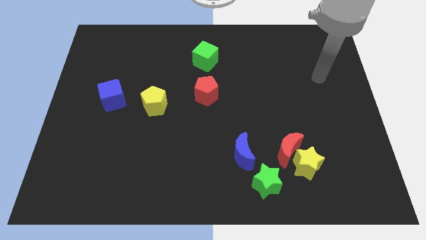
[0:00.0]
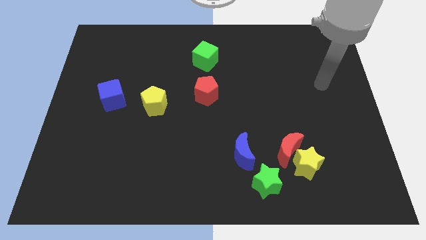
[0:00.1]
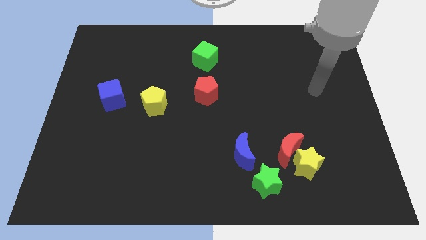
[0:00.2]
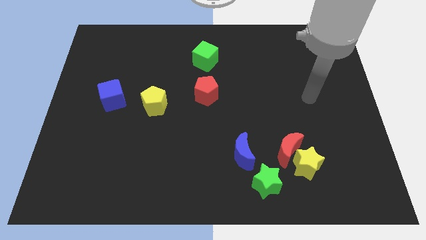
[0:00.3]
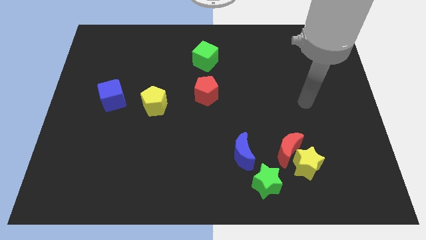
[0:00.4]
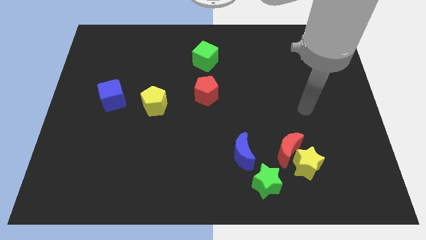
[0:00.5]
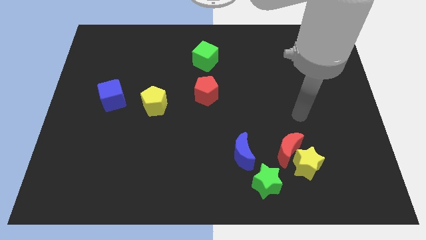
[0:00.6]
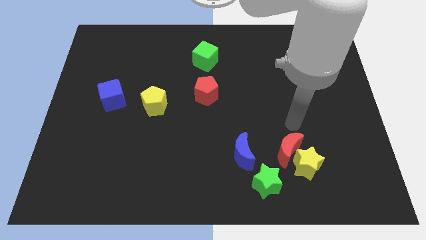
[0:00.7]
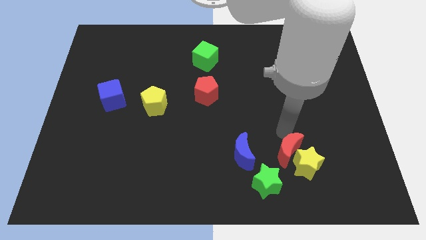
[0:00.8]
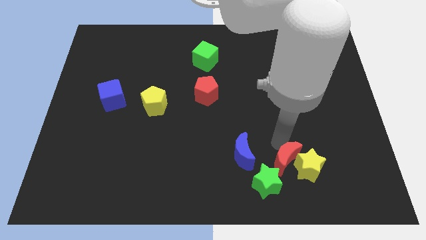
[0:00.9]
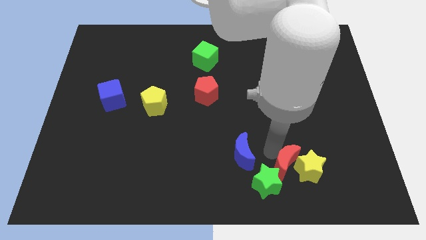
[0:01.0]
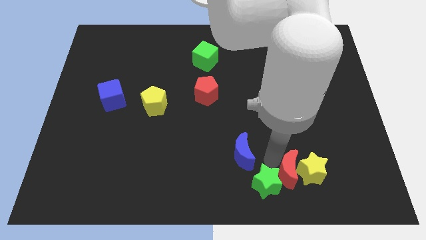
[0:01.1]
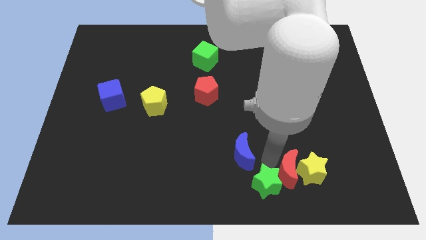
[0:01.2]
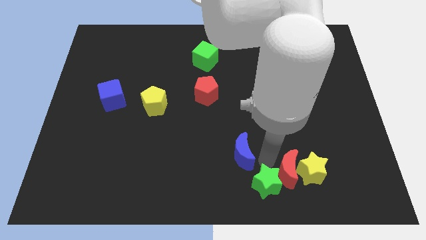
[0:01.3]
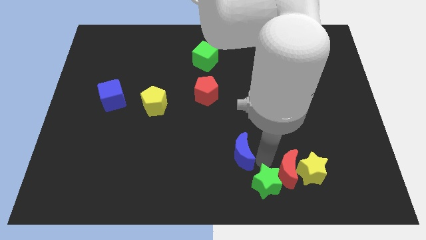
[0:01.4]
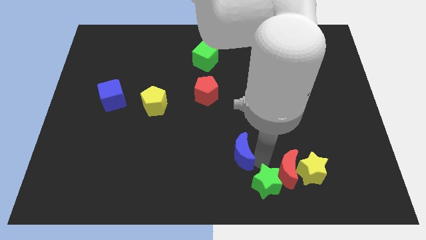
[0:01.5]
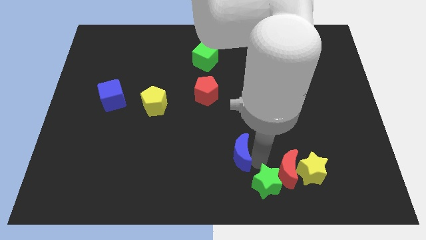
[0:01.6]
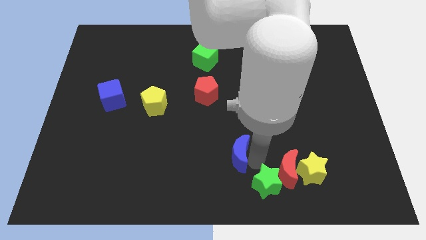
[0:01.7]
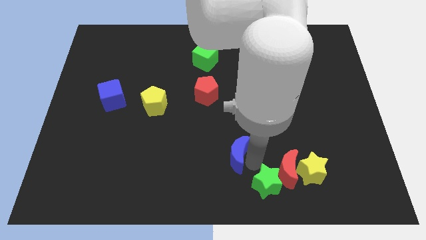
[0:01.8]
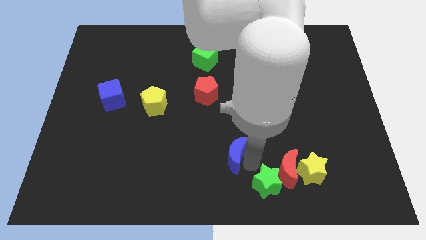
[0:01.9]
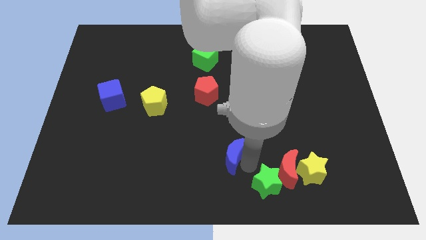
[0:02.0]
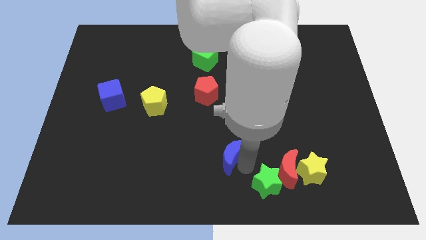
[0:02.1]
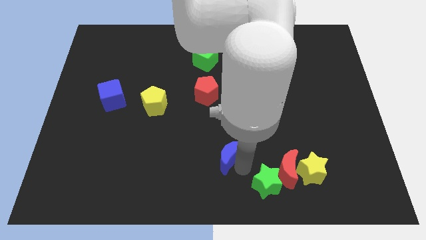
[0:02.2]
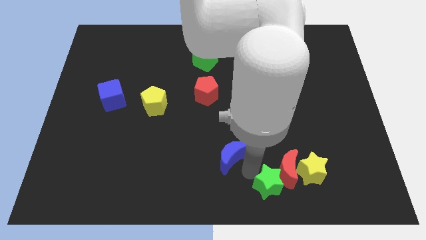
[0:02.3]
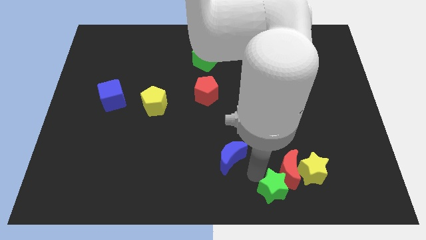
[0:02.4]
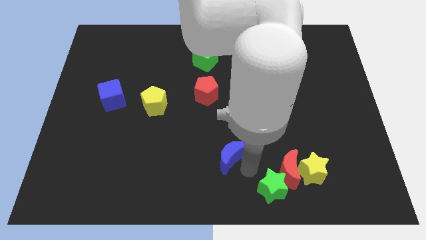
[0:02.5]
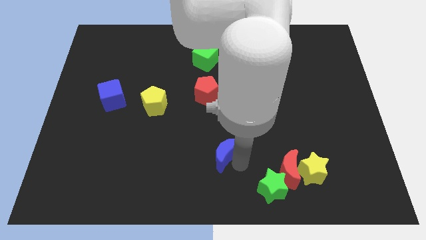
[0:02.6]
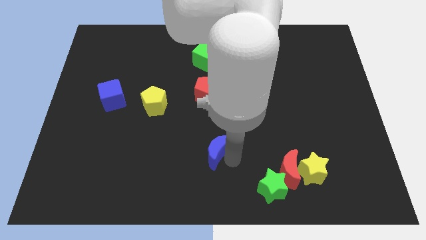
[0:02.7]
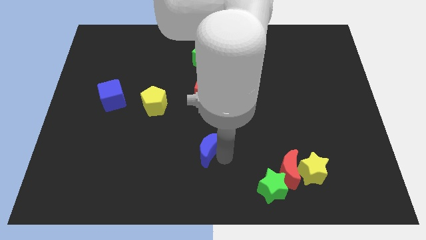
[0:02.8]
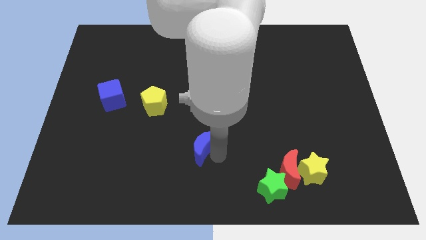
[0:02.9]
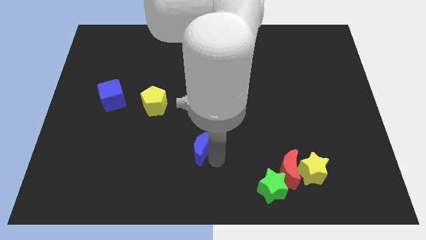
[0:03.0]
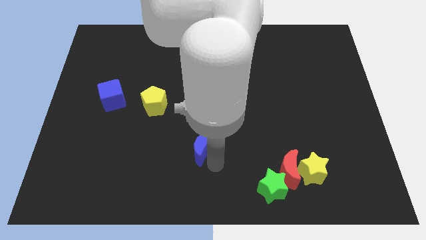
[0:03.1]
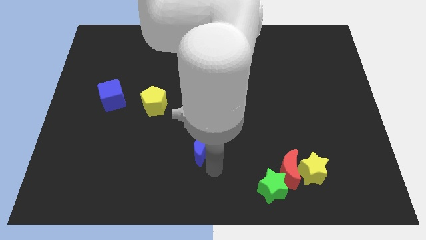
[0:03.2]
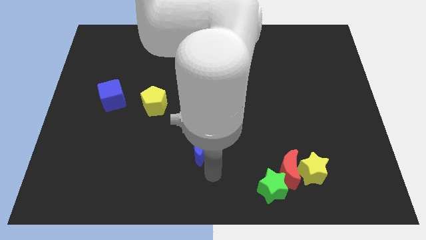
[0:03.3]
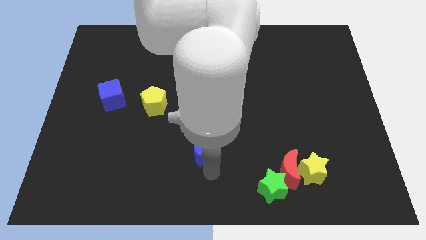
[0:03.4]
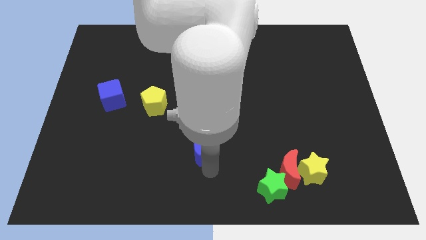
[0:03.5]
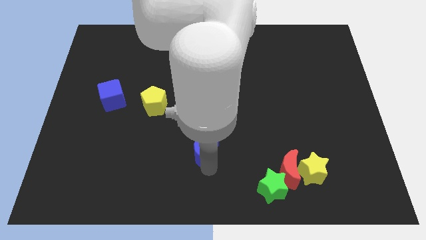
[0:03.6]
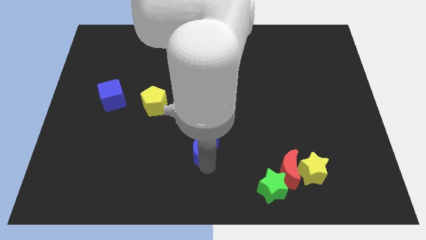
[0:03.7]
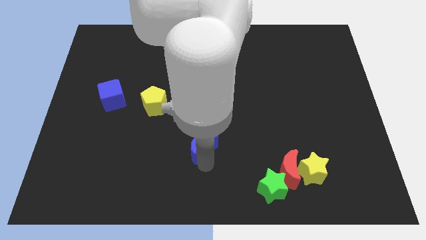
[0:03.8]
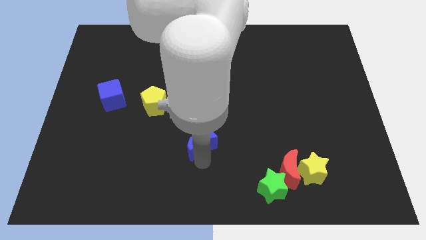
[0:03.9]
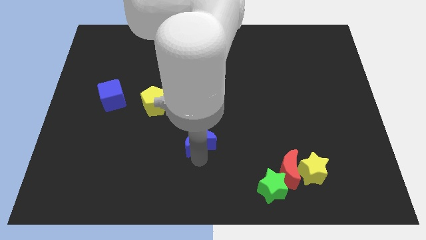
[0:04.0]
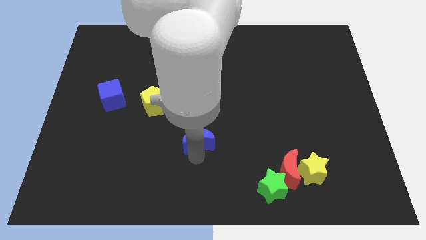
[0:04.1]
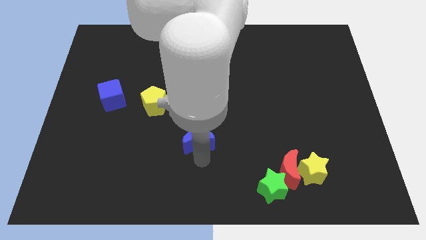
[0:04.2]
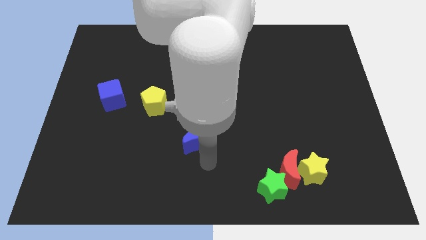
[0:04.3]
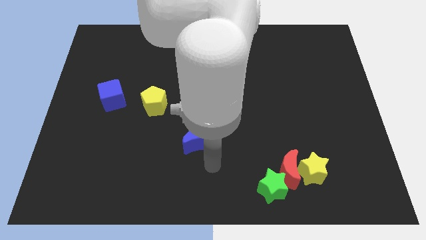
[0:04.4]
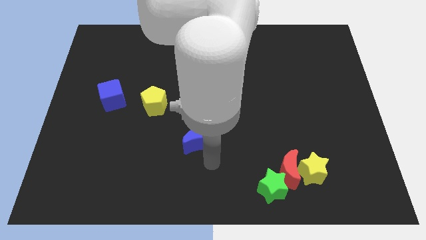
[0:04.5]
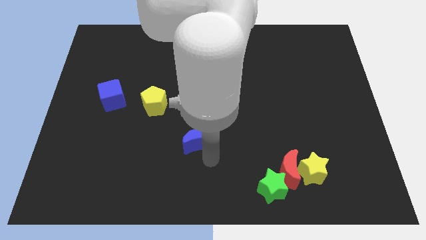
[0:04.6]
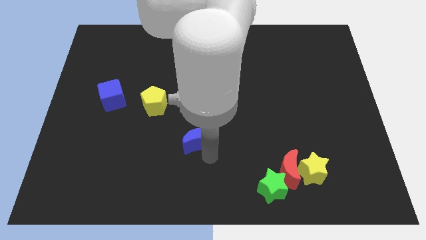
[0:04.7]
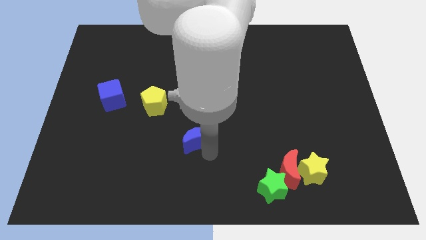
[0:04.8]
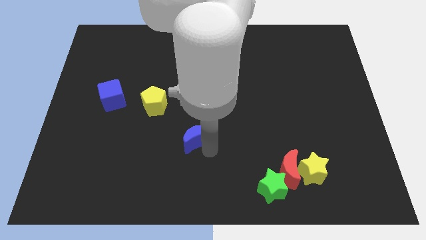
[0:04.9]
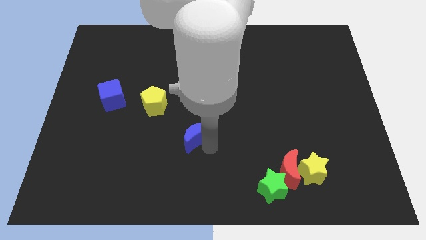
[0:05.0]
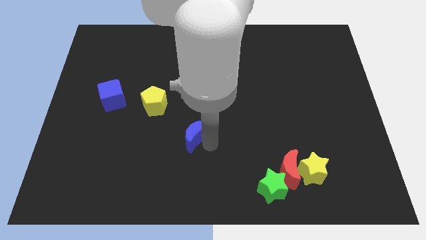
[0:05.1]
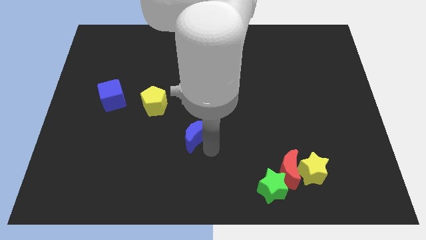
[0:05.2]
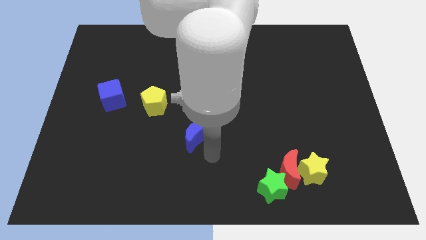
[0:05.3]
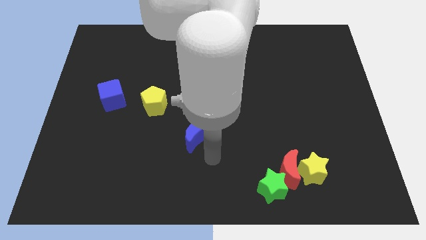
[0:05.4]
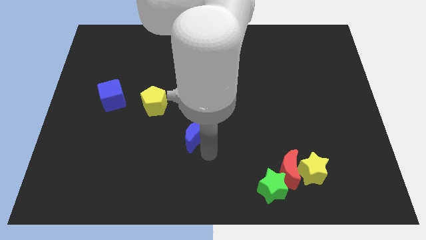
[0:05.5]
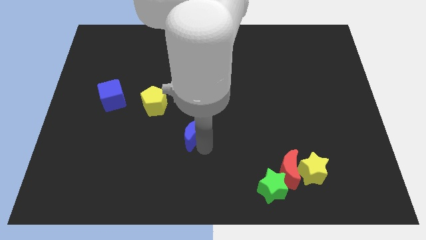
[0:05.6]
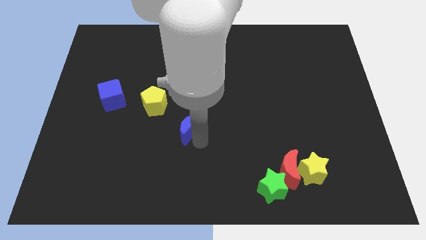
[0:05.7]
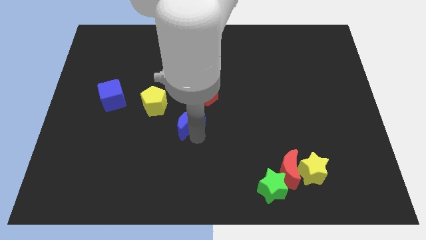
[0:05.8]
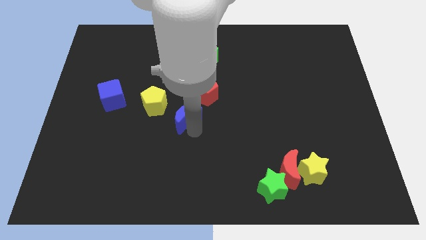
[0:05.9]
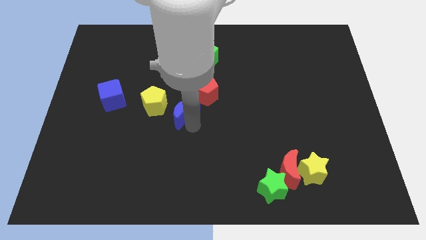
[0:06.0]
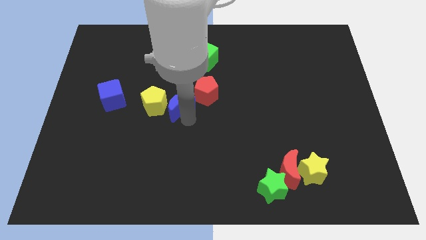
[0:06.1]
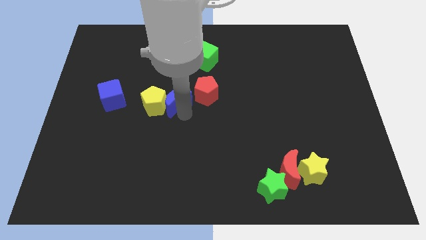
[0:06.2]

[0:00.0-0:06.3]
move the blue moon upwards and left diagonally

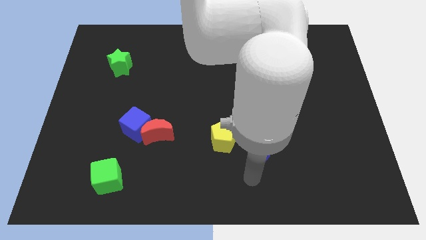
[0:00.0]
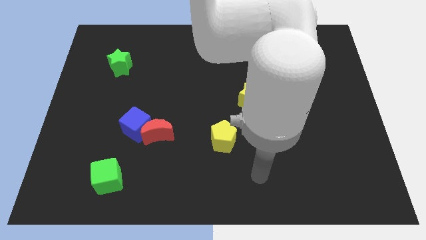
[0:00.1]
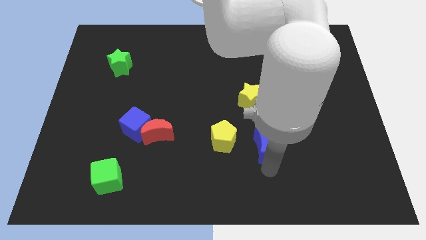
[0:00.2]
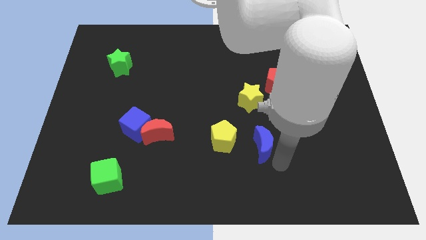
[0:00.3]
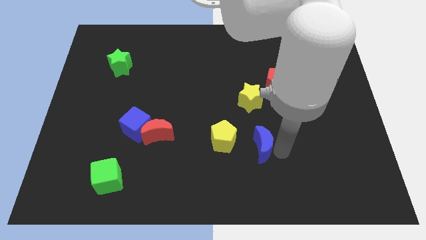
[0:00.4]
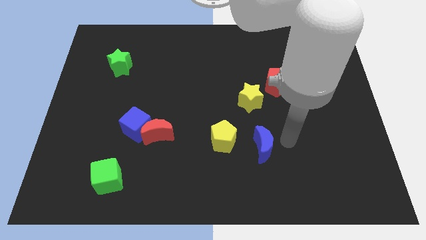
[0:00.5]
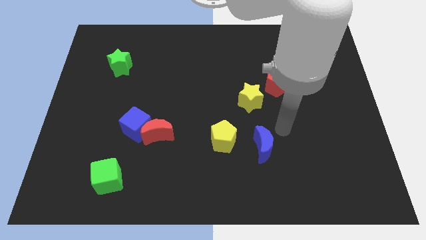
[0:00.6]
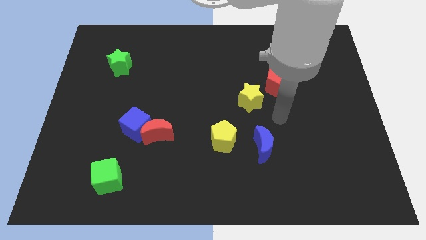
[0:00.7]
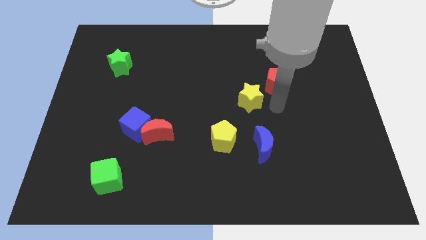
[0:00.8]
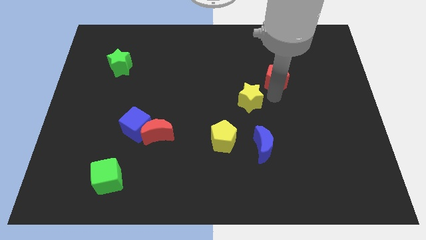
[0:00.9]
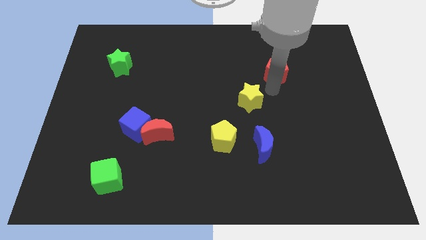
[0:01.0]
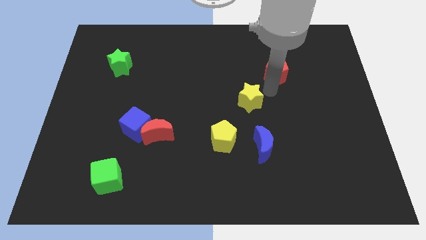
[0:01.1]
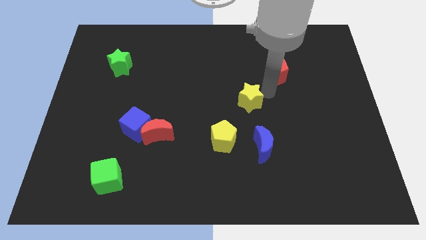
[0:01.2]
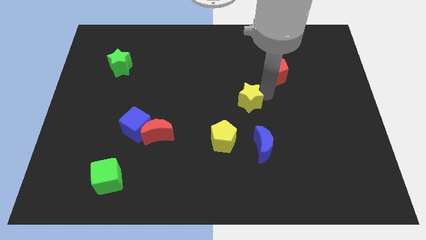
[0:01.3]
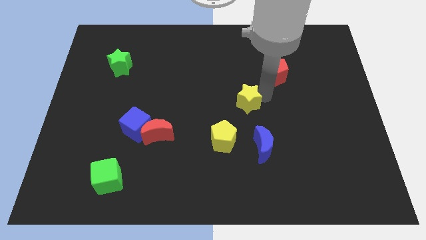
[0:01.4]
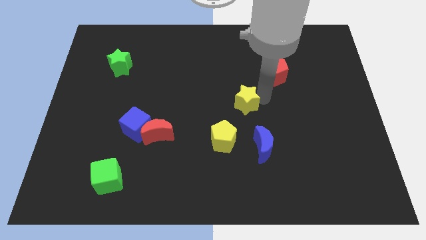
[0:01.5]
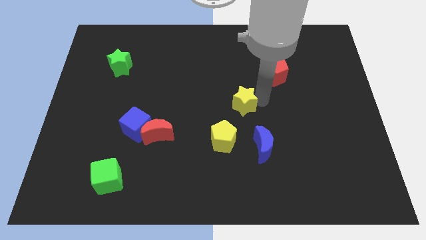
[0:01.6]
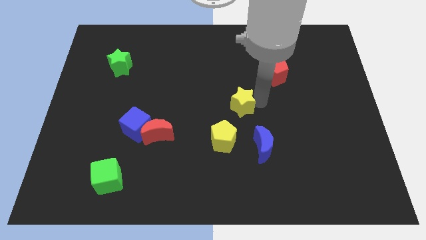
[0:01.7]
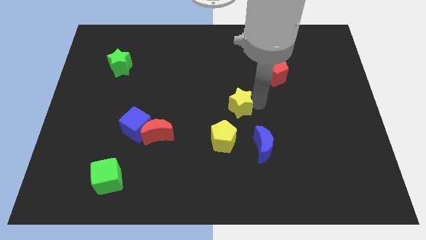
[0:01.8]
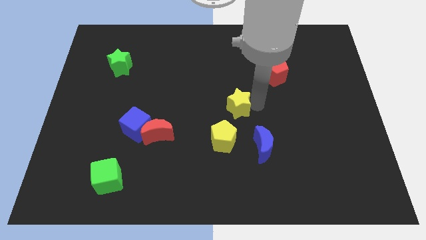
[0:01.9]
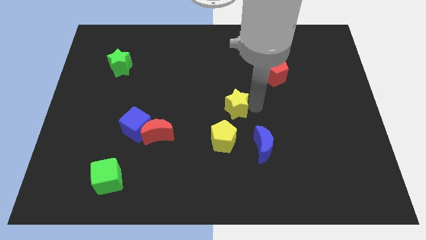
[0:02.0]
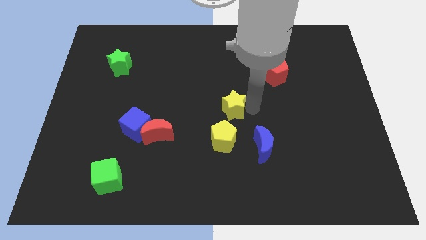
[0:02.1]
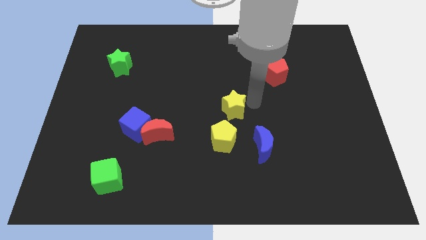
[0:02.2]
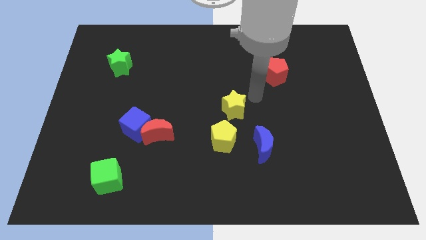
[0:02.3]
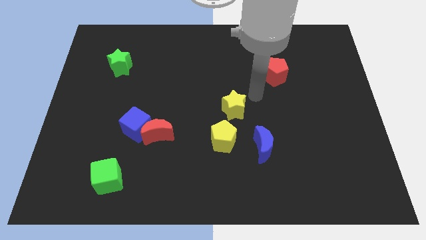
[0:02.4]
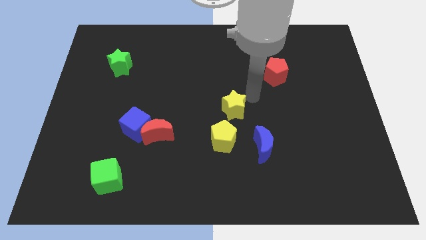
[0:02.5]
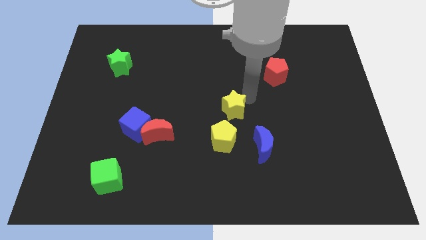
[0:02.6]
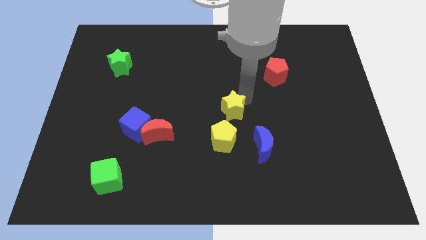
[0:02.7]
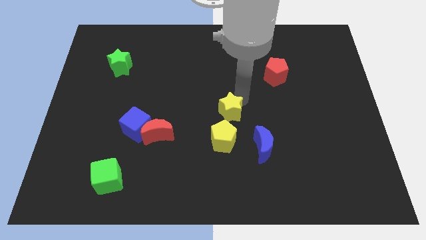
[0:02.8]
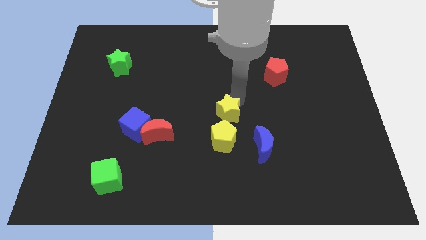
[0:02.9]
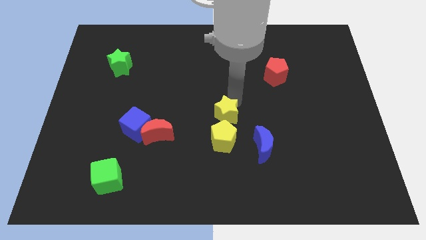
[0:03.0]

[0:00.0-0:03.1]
slightly push the yellow star down and left
